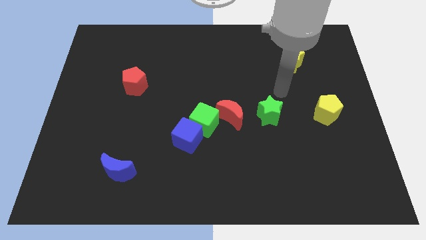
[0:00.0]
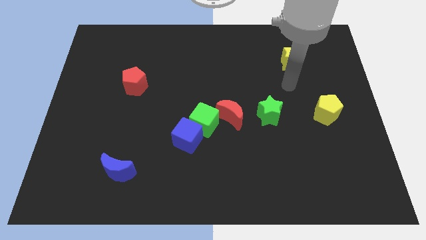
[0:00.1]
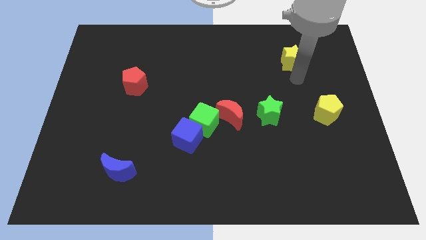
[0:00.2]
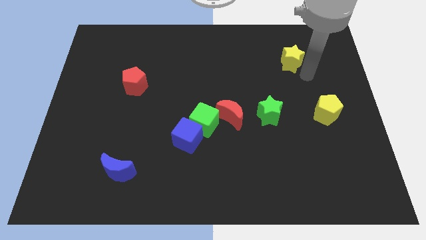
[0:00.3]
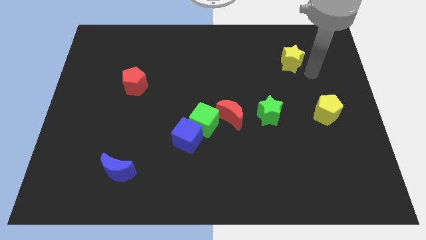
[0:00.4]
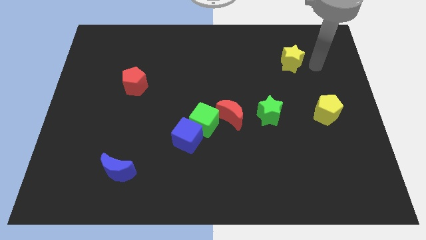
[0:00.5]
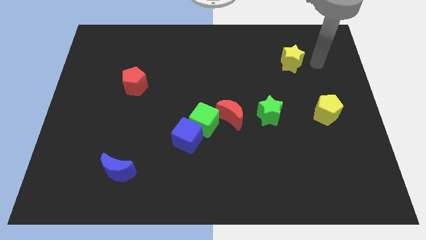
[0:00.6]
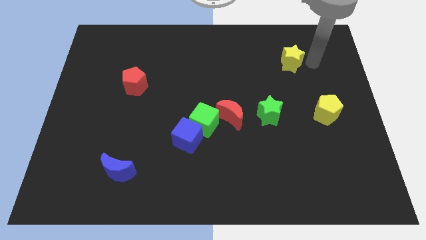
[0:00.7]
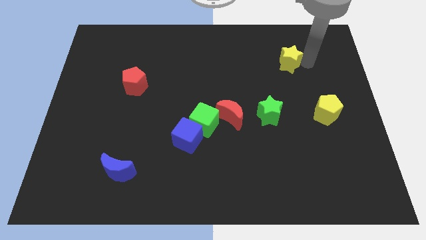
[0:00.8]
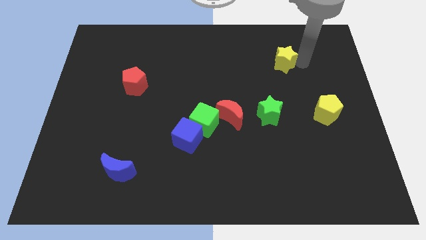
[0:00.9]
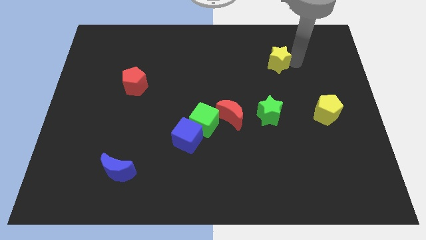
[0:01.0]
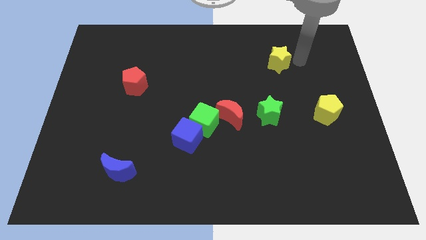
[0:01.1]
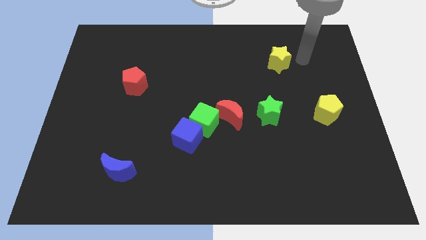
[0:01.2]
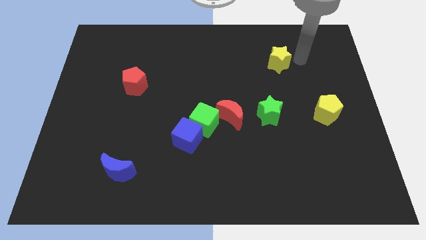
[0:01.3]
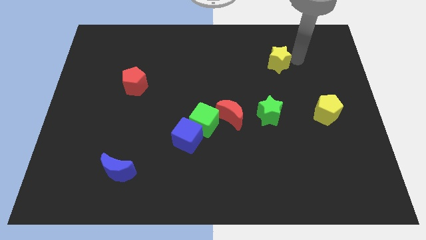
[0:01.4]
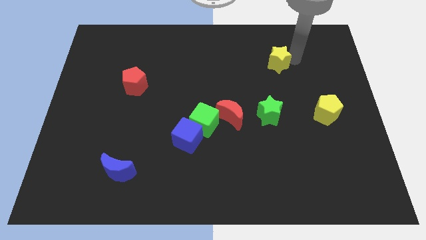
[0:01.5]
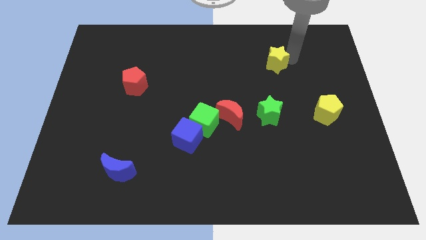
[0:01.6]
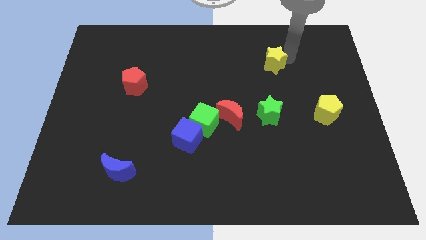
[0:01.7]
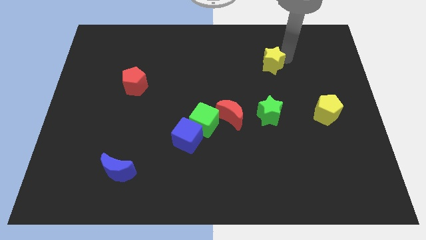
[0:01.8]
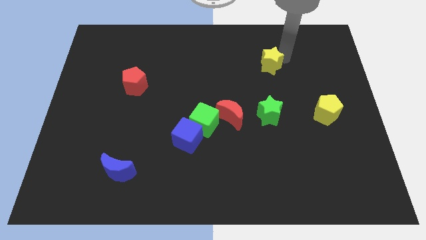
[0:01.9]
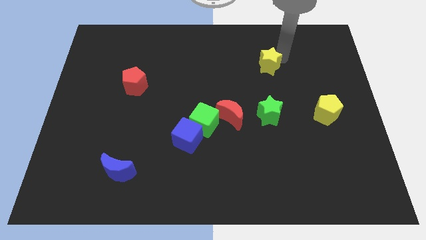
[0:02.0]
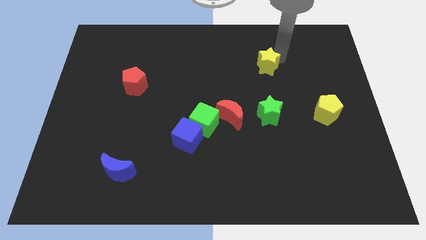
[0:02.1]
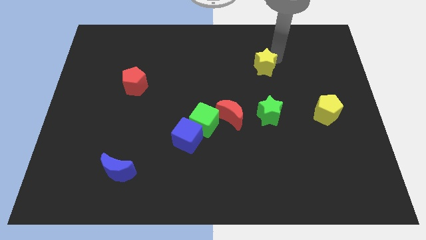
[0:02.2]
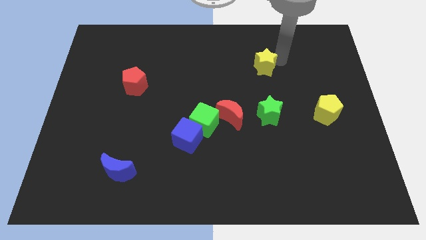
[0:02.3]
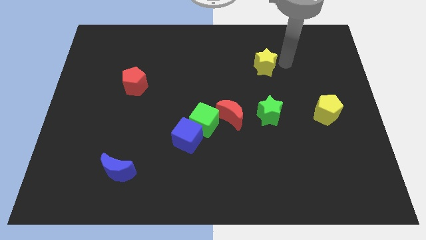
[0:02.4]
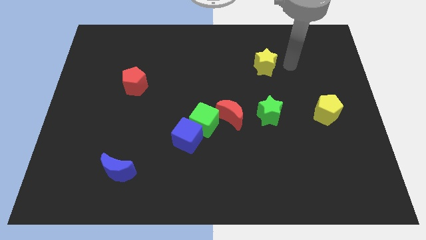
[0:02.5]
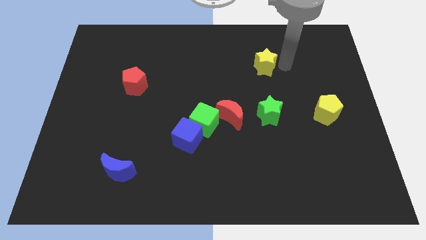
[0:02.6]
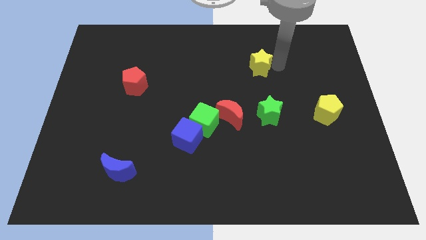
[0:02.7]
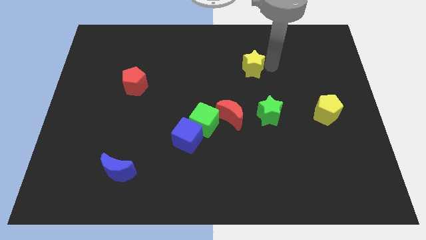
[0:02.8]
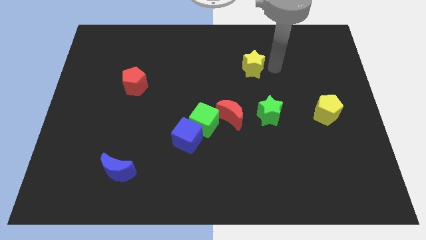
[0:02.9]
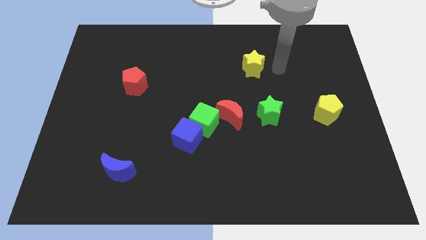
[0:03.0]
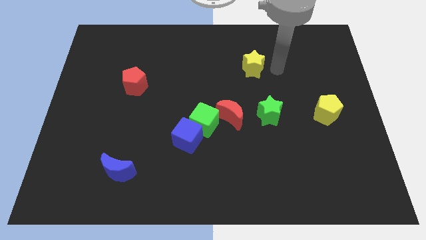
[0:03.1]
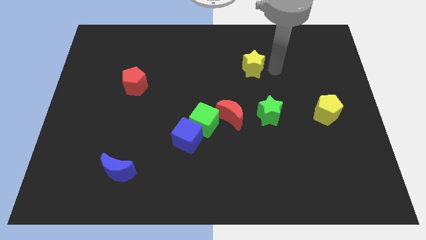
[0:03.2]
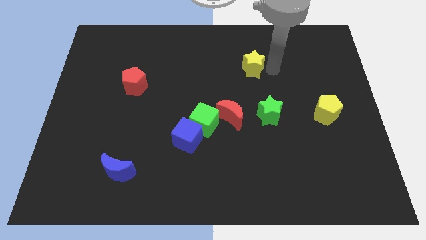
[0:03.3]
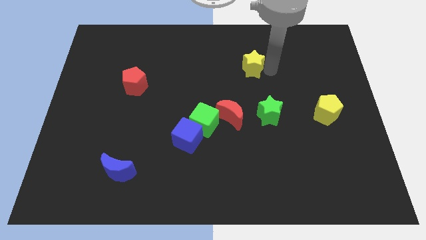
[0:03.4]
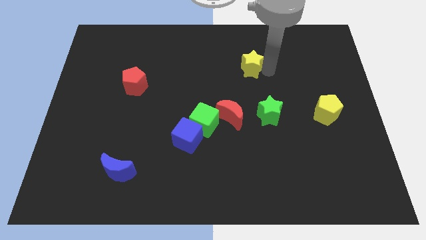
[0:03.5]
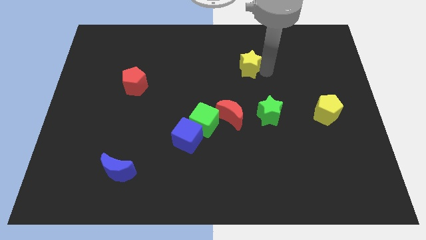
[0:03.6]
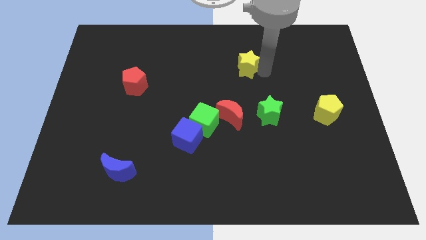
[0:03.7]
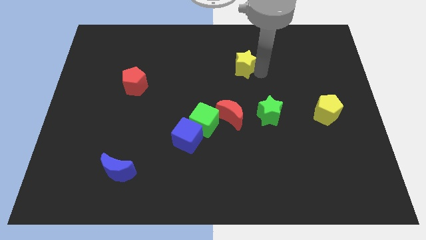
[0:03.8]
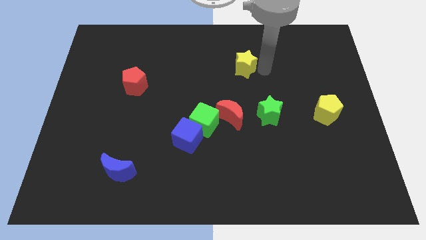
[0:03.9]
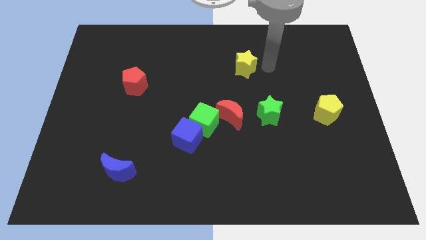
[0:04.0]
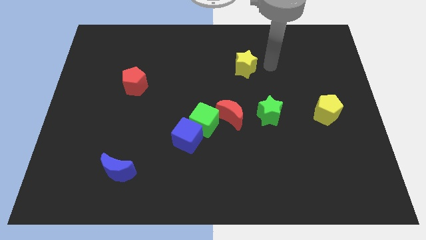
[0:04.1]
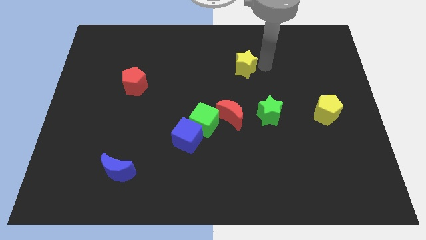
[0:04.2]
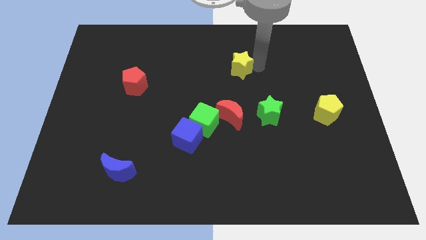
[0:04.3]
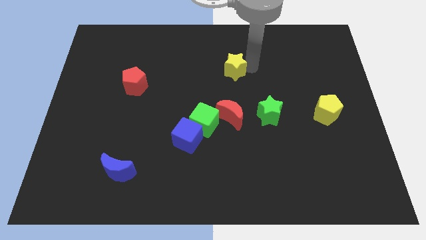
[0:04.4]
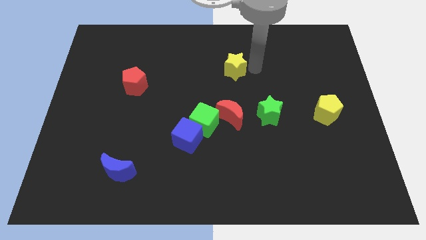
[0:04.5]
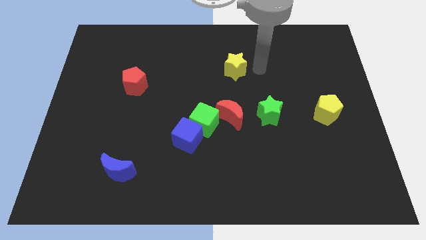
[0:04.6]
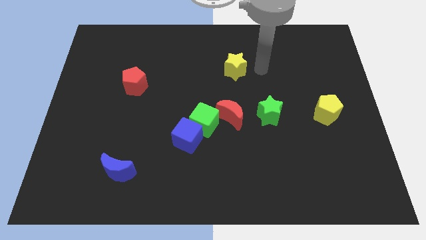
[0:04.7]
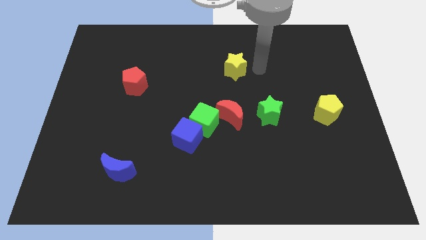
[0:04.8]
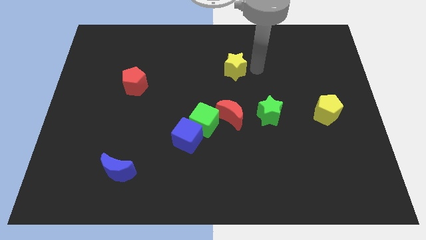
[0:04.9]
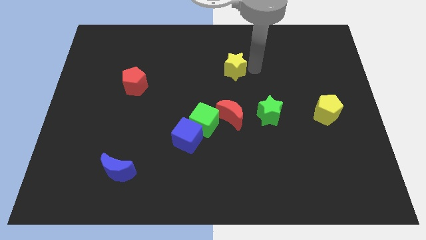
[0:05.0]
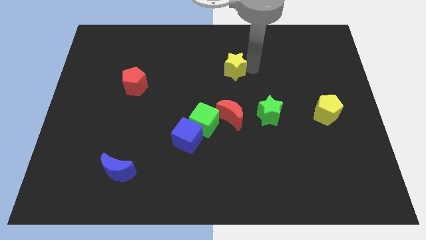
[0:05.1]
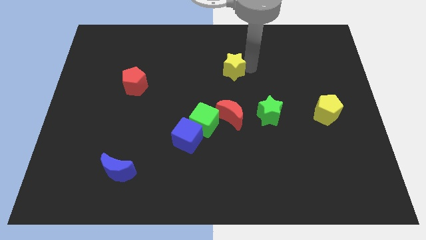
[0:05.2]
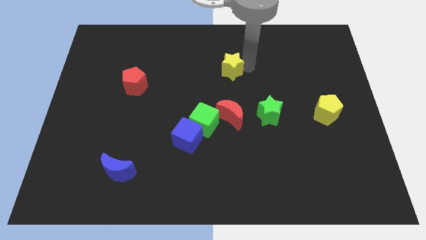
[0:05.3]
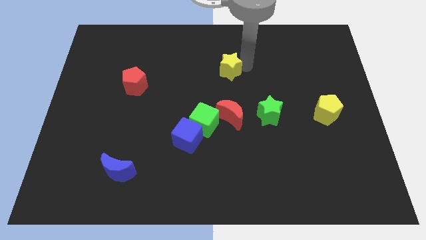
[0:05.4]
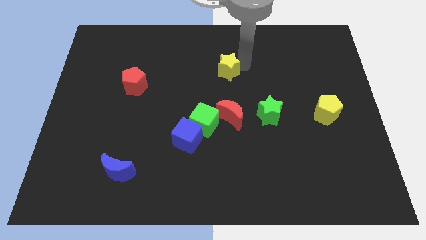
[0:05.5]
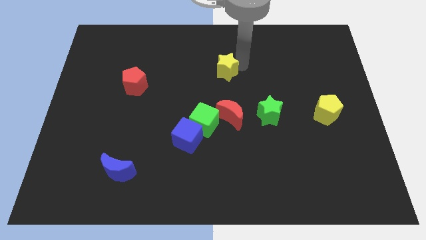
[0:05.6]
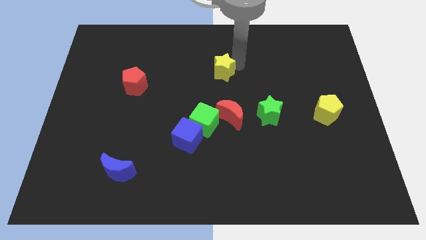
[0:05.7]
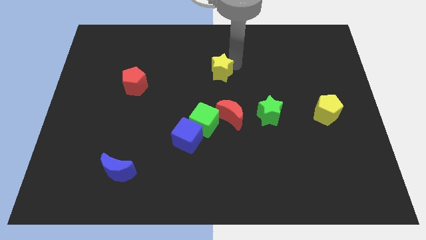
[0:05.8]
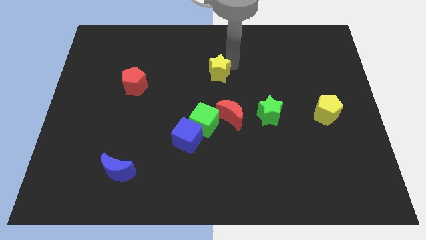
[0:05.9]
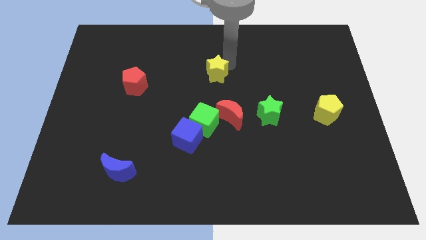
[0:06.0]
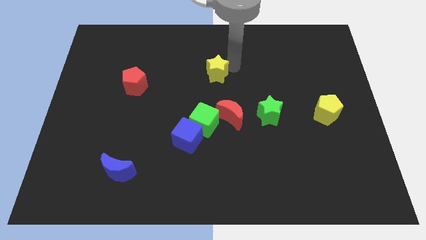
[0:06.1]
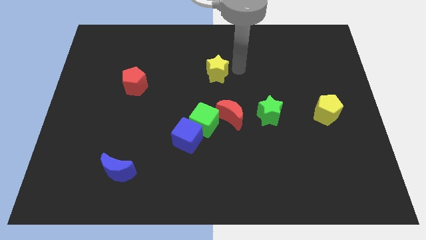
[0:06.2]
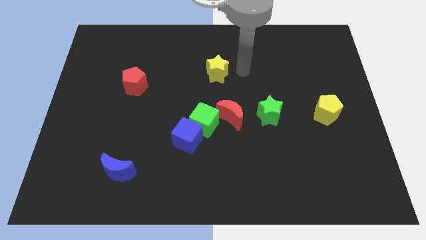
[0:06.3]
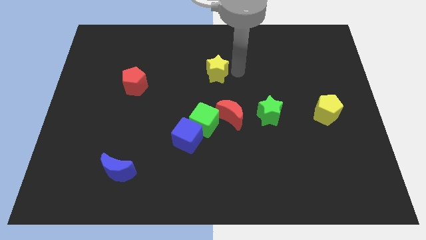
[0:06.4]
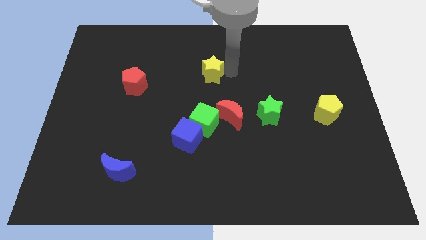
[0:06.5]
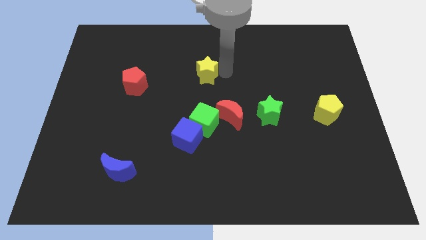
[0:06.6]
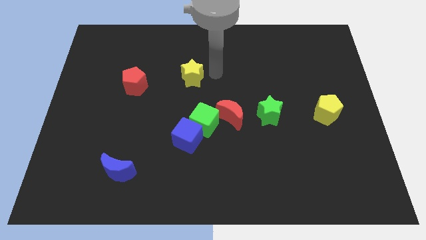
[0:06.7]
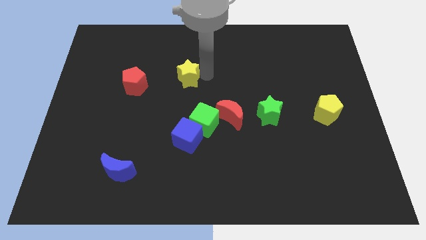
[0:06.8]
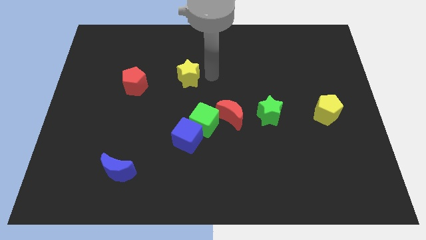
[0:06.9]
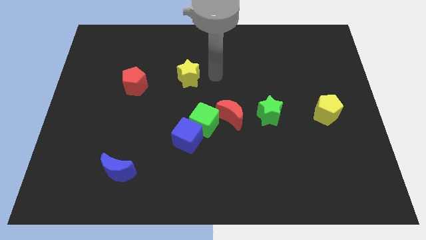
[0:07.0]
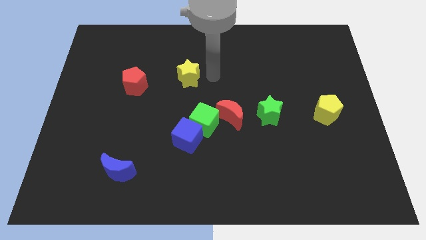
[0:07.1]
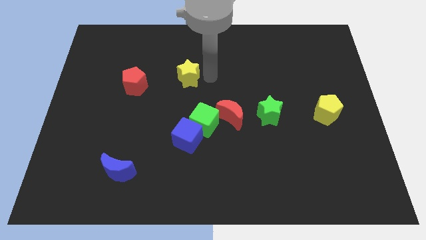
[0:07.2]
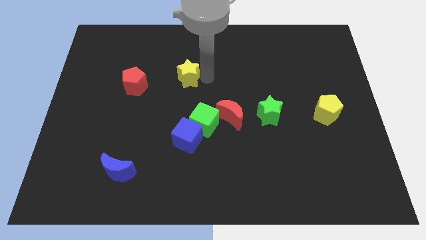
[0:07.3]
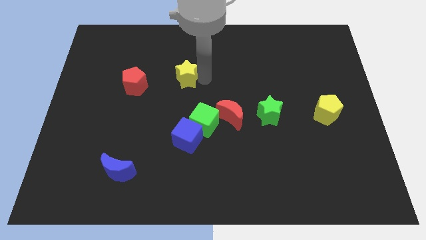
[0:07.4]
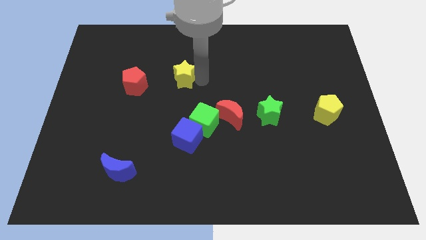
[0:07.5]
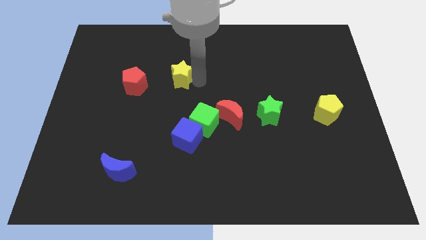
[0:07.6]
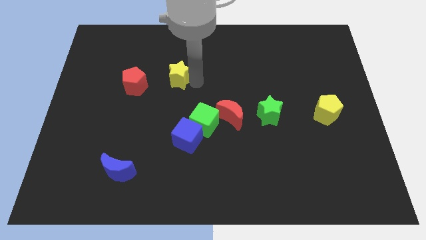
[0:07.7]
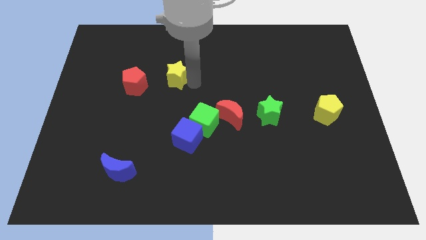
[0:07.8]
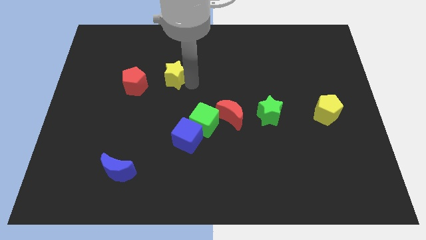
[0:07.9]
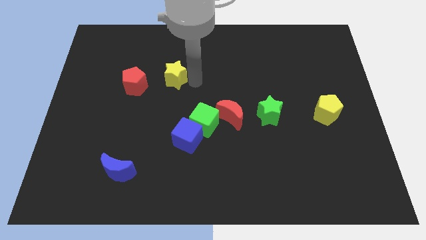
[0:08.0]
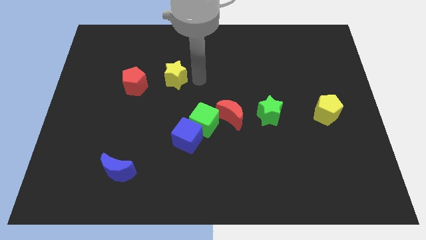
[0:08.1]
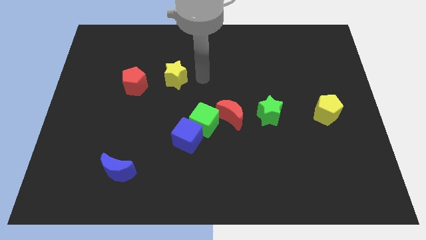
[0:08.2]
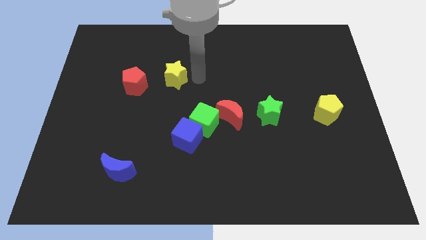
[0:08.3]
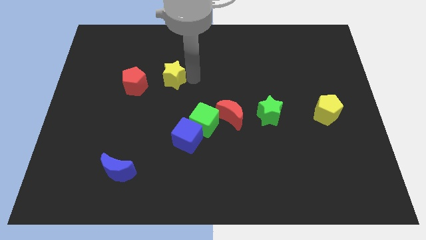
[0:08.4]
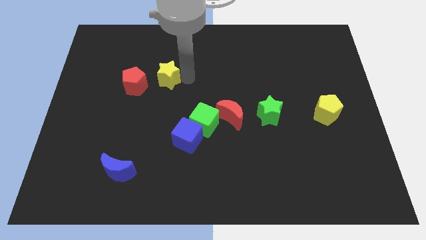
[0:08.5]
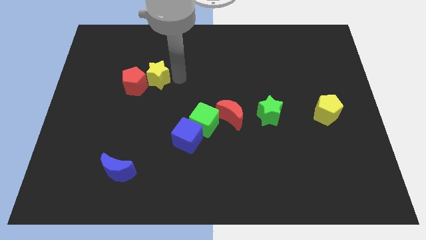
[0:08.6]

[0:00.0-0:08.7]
push the yellow star next to the red pentagon
